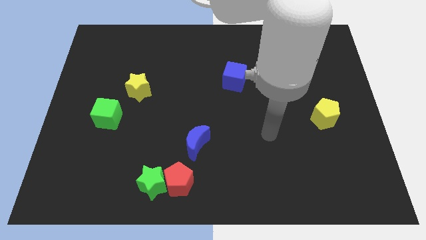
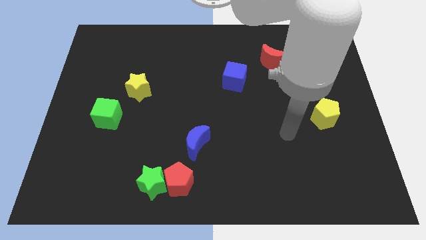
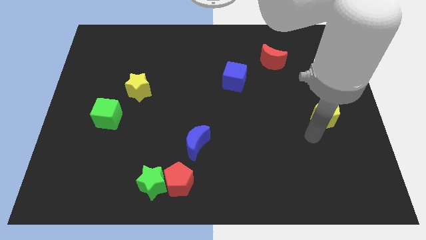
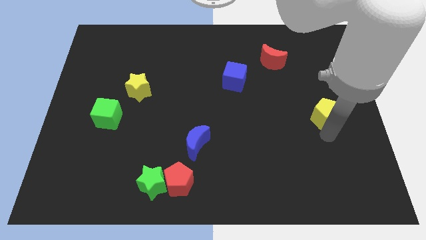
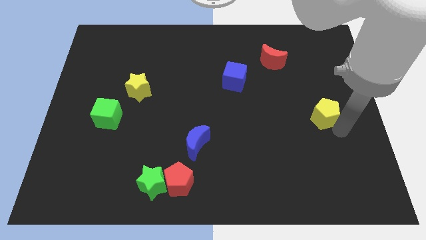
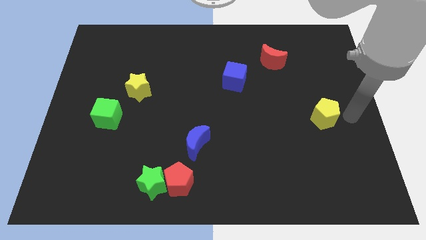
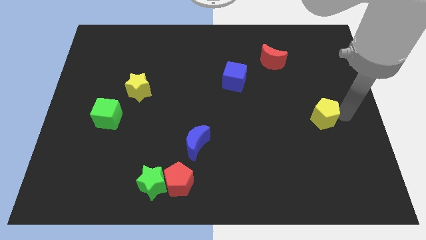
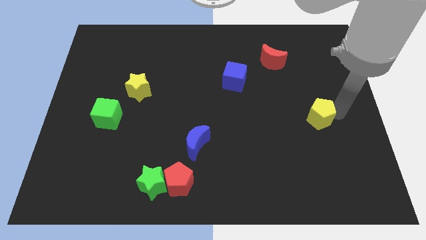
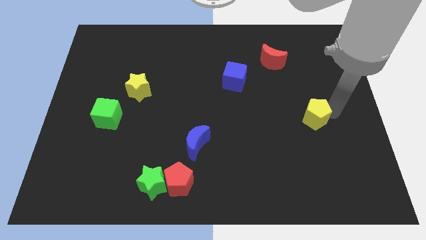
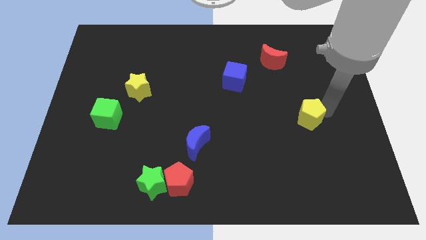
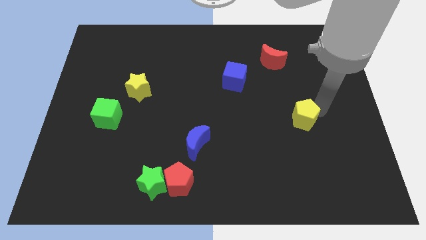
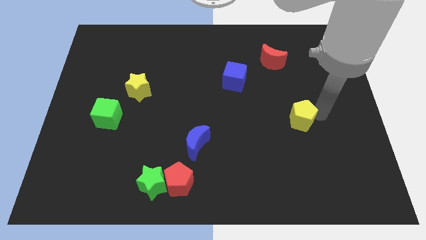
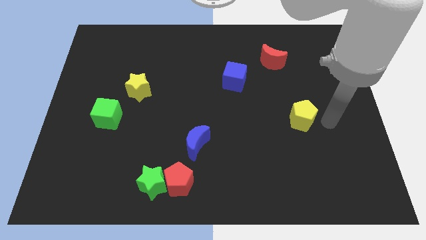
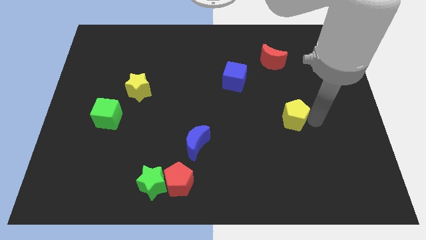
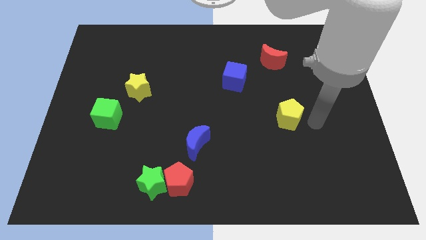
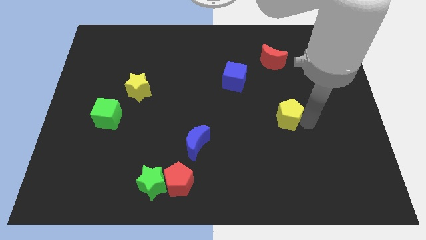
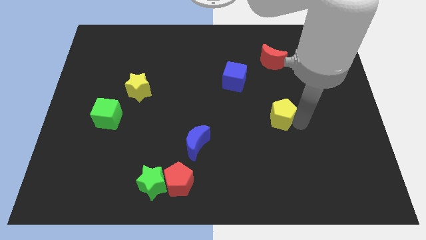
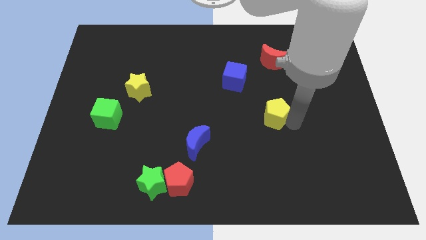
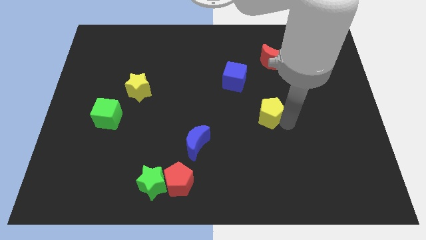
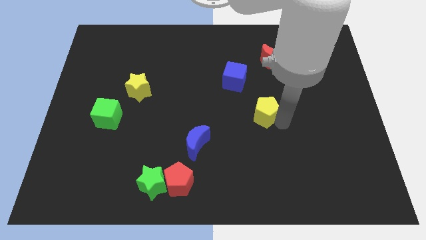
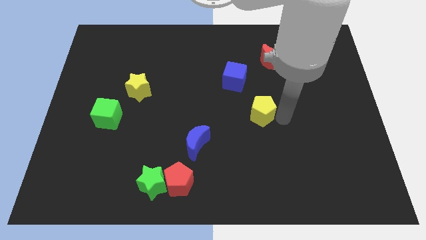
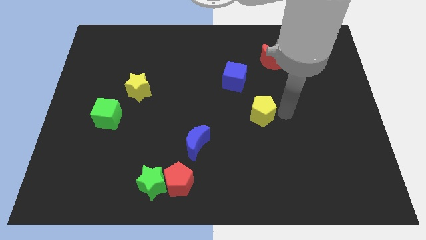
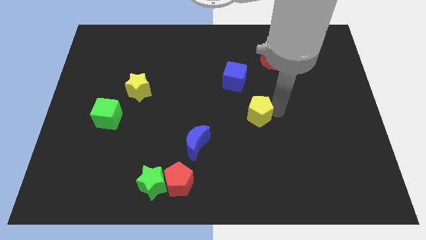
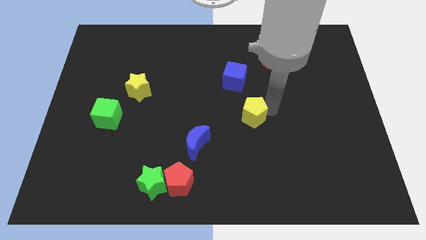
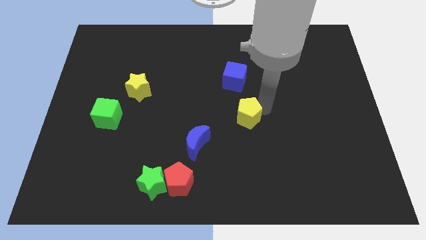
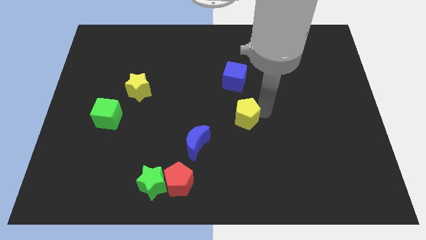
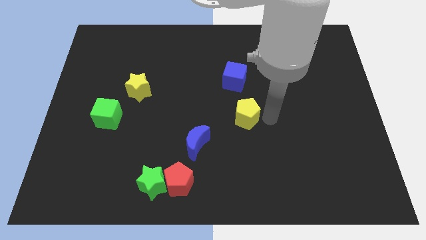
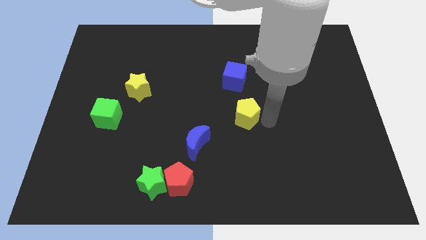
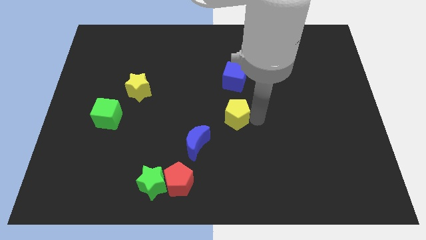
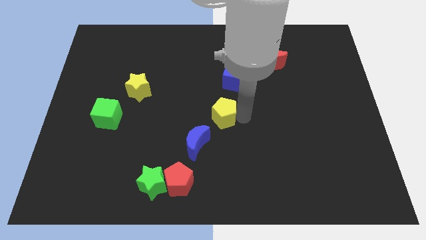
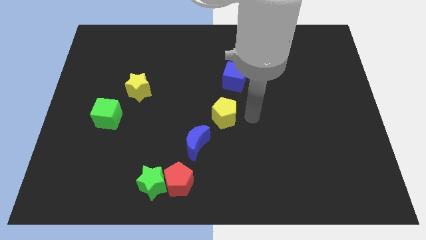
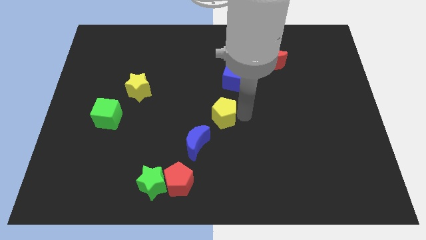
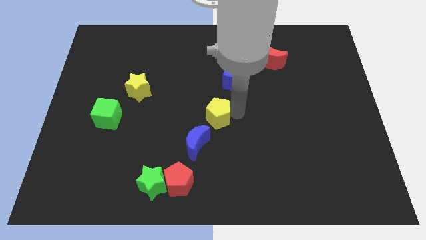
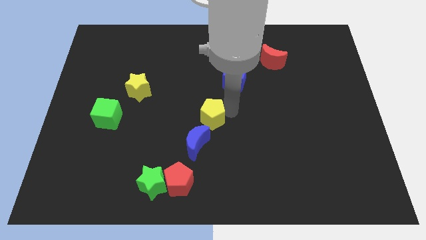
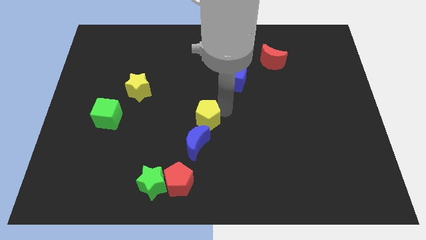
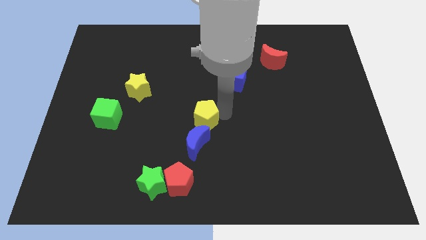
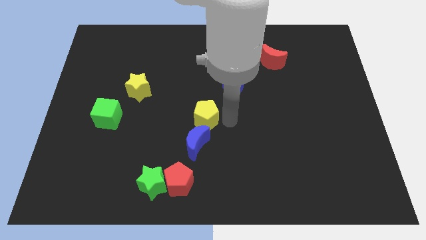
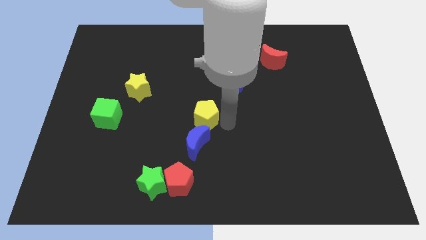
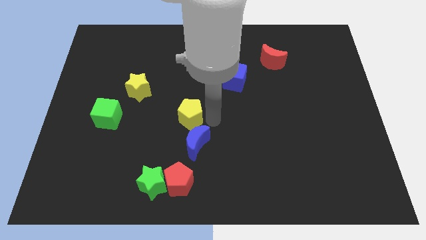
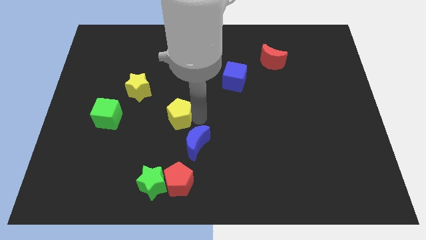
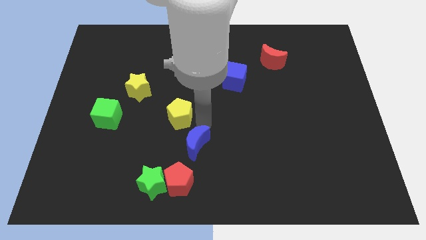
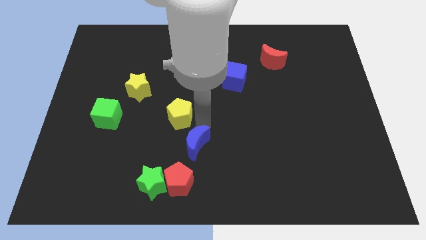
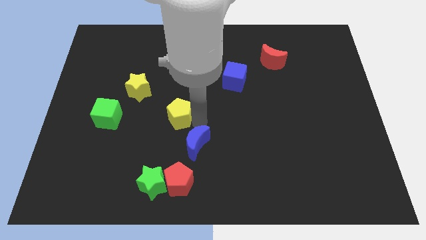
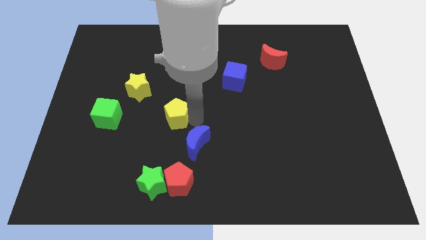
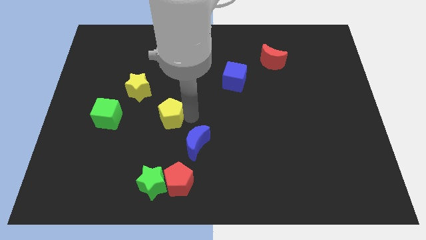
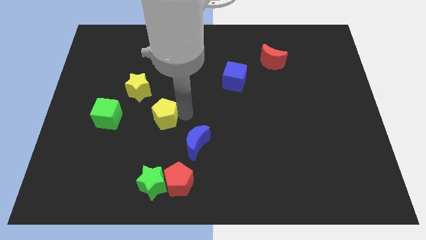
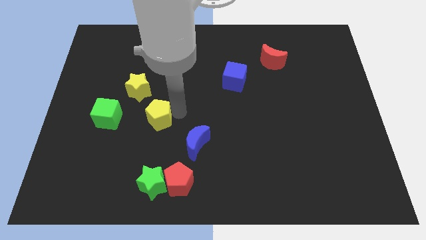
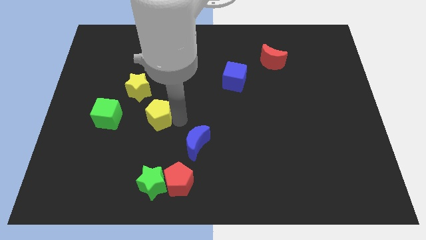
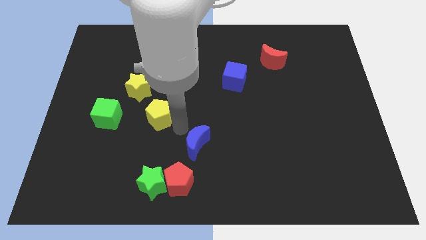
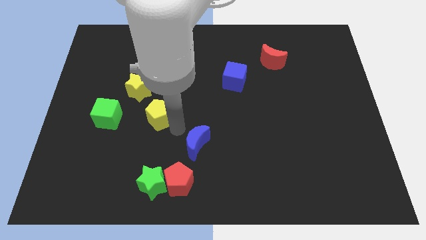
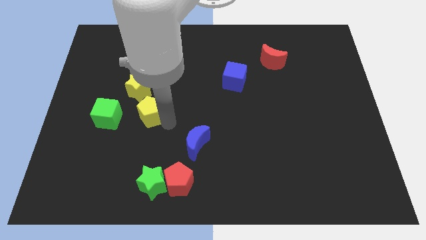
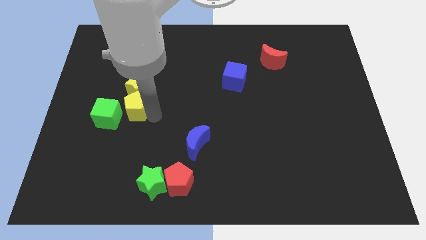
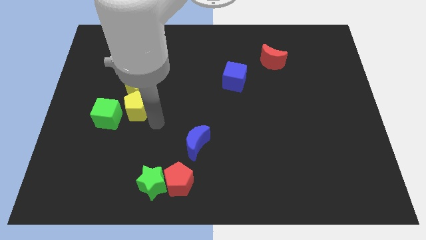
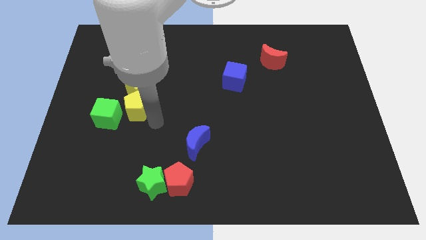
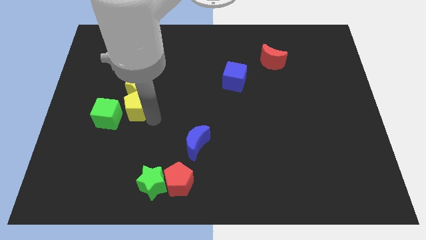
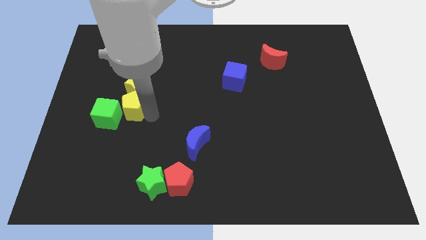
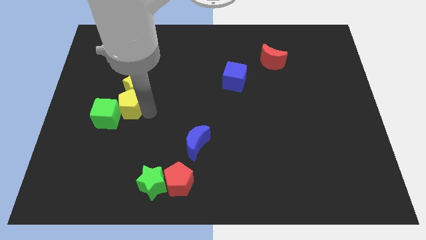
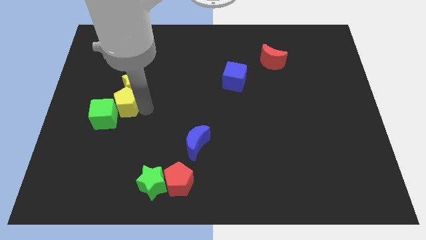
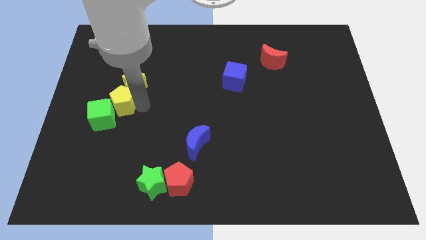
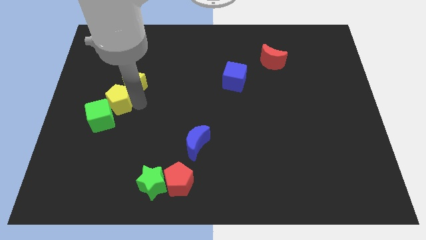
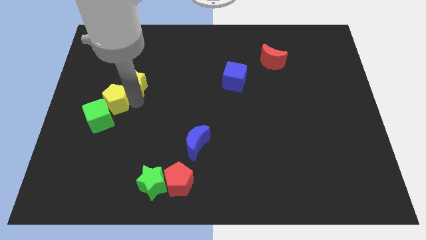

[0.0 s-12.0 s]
put the yellow pentagon to the left side of the yellow star

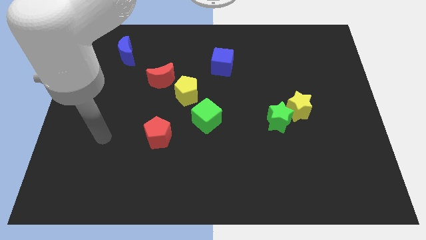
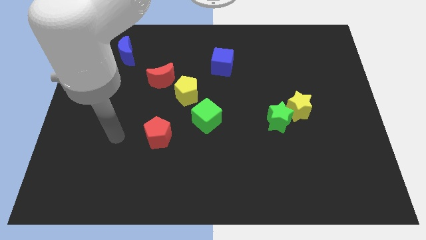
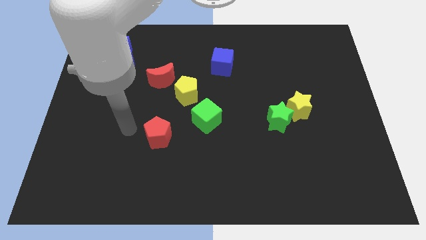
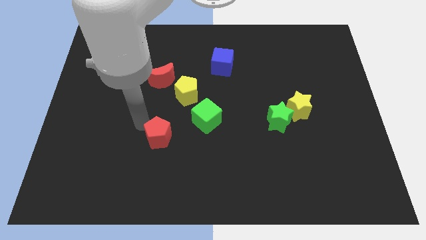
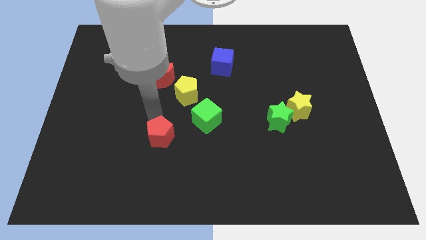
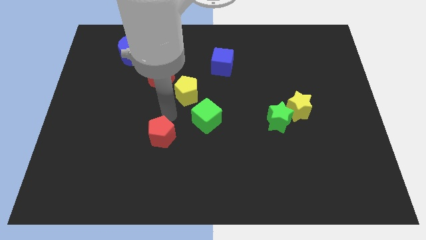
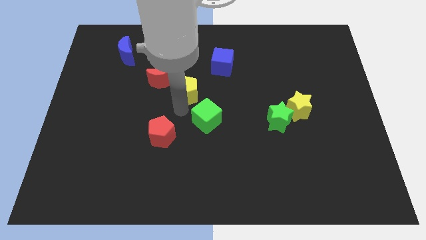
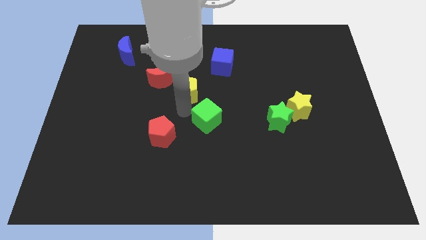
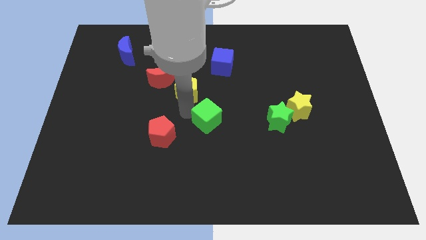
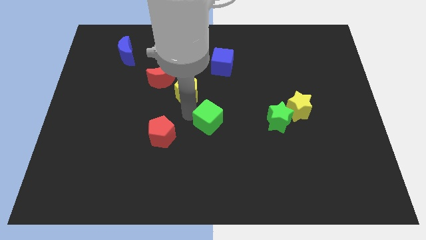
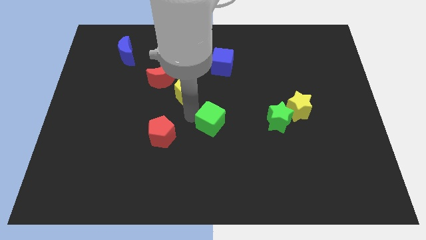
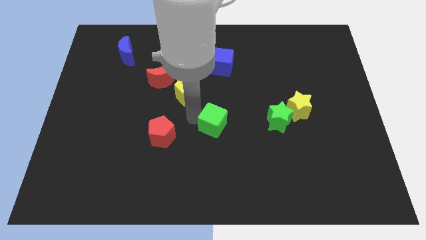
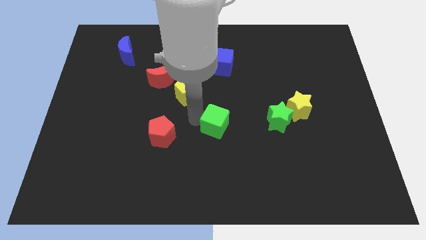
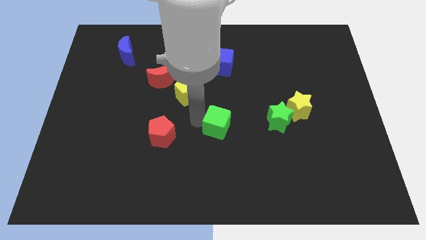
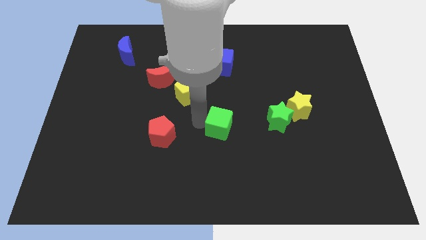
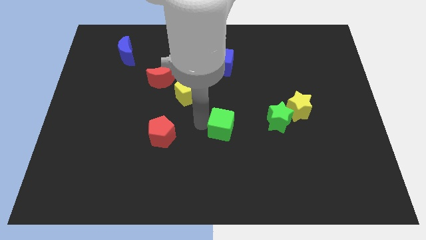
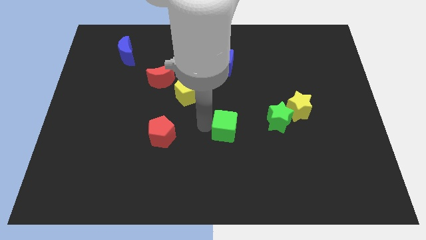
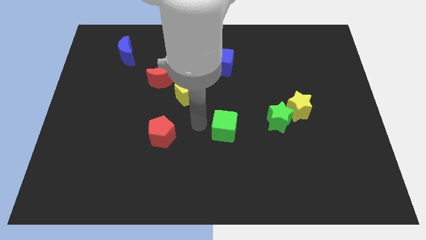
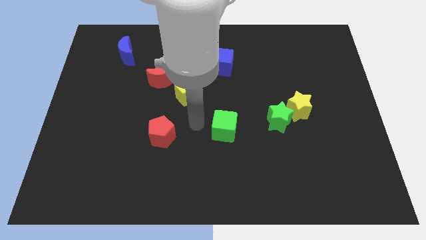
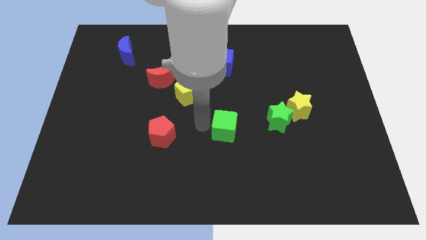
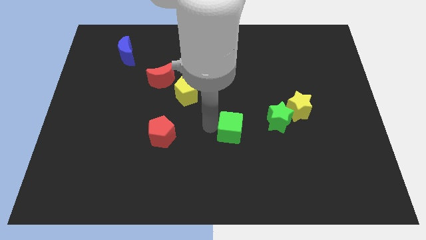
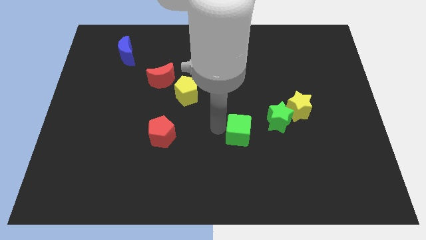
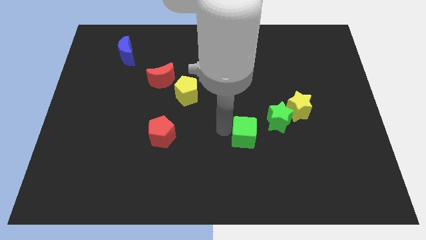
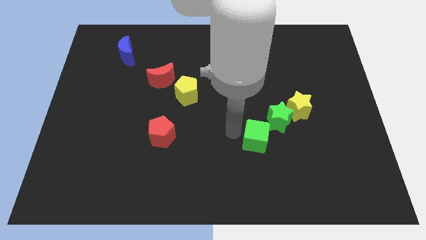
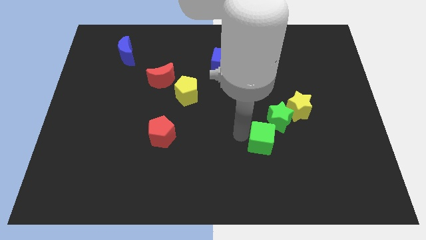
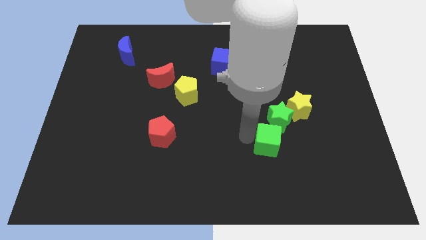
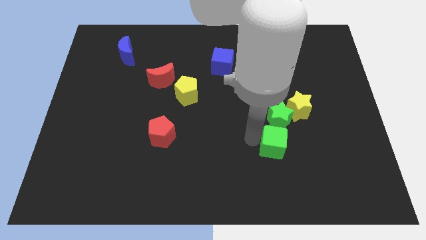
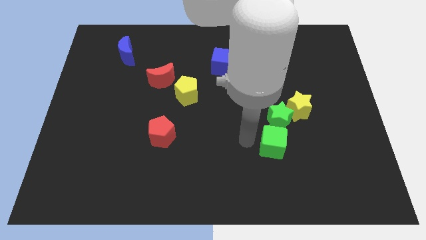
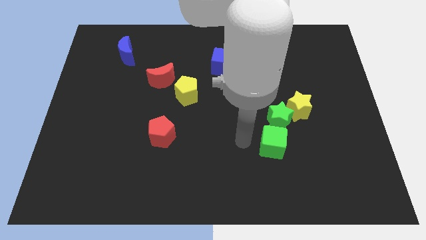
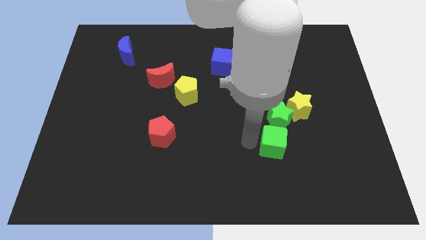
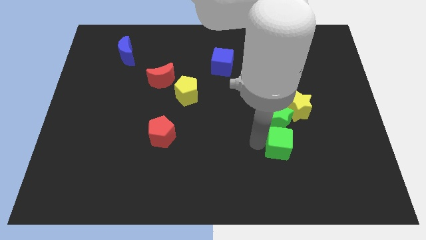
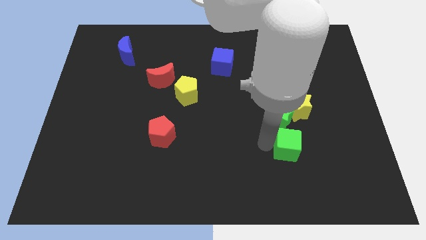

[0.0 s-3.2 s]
put the green cube to the bottom of the yellow star
